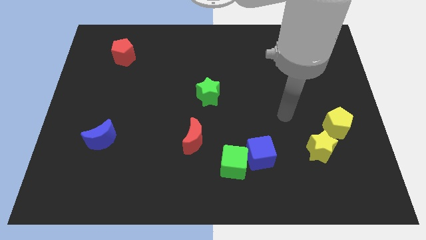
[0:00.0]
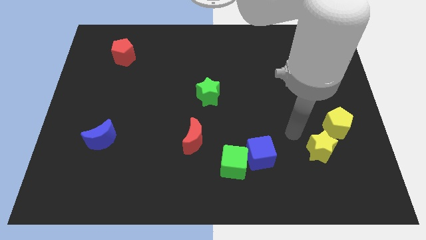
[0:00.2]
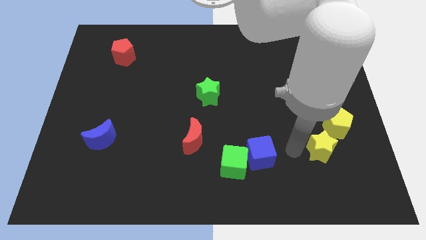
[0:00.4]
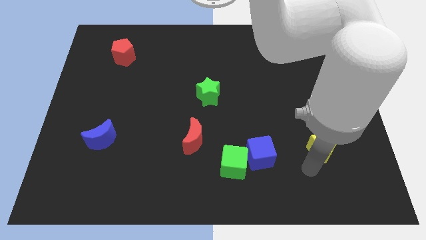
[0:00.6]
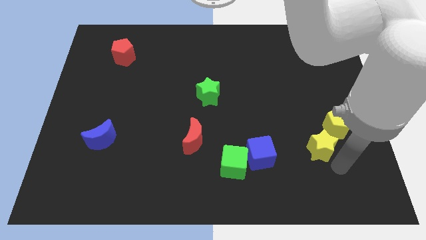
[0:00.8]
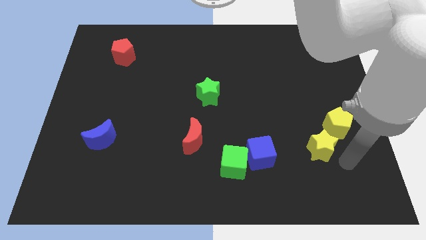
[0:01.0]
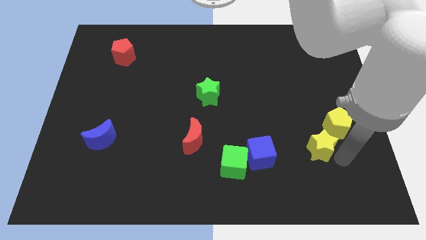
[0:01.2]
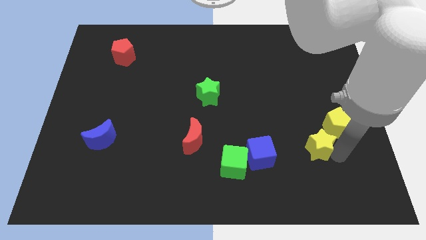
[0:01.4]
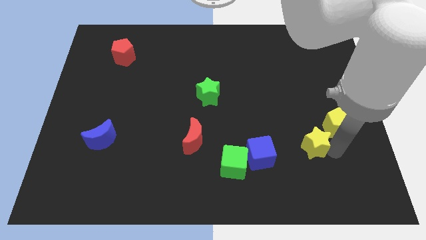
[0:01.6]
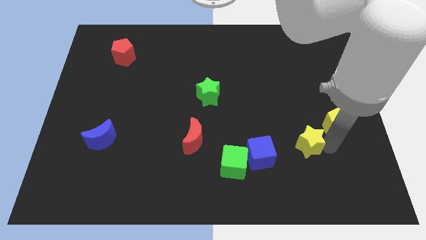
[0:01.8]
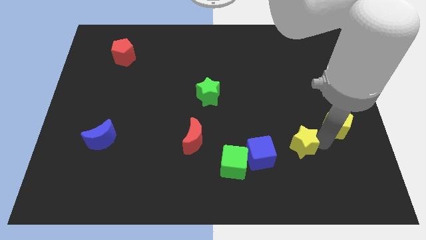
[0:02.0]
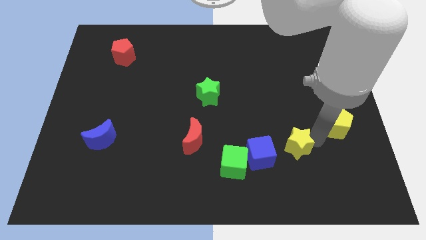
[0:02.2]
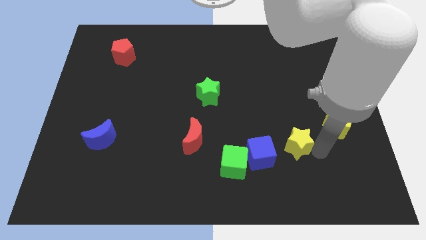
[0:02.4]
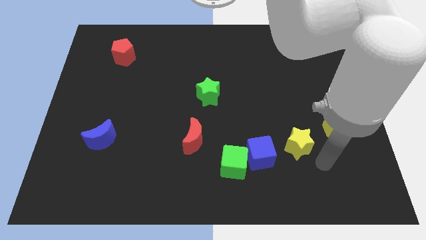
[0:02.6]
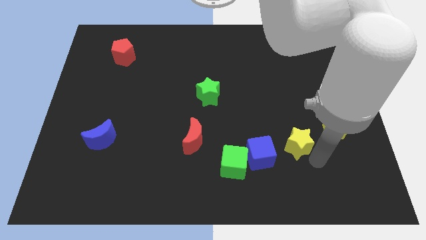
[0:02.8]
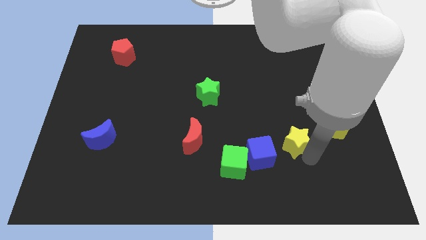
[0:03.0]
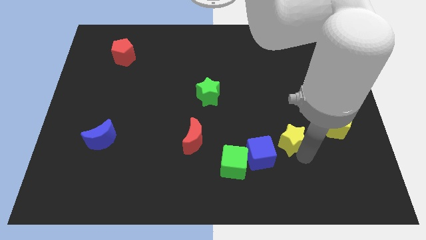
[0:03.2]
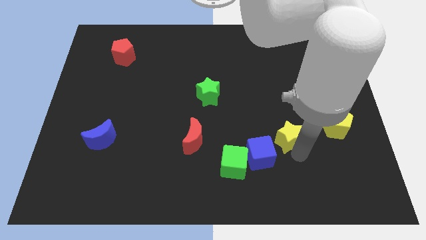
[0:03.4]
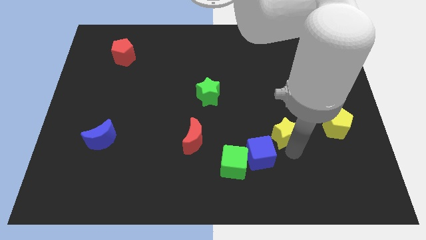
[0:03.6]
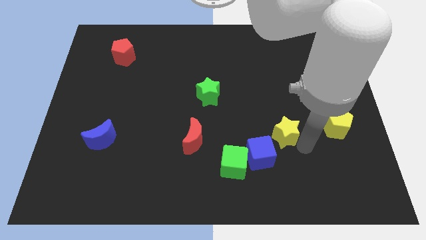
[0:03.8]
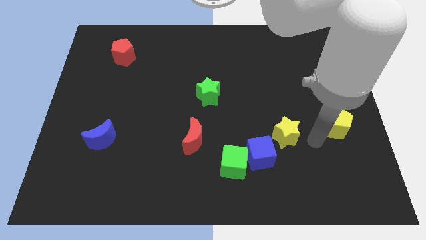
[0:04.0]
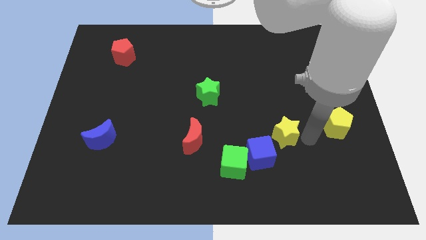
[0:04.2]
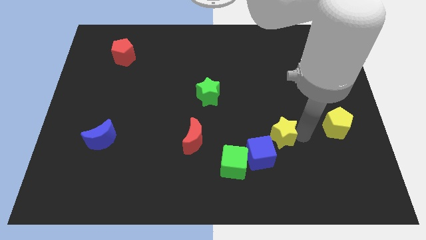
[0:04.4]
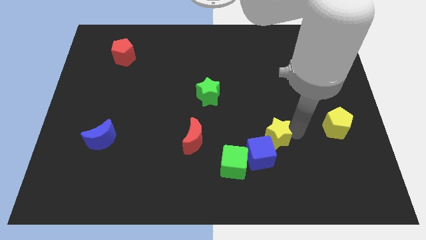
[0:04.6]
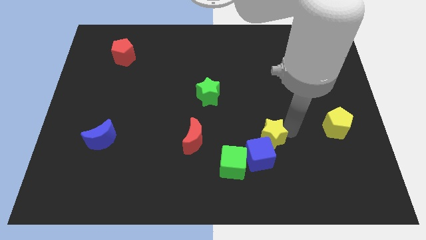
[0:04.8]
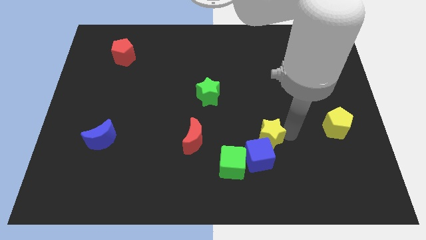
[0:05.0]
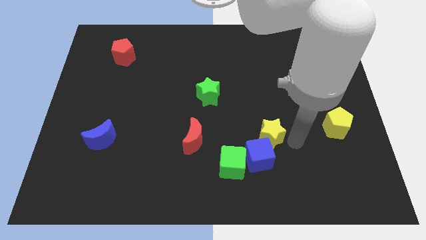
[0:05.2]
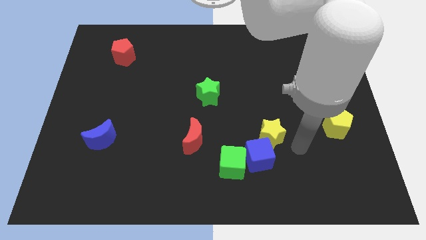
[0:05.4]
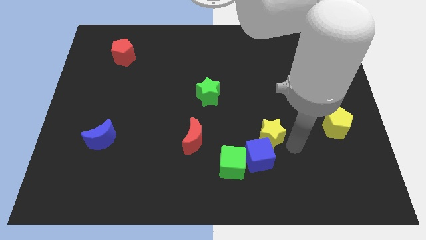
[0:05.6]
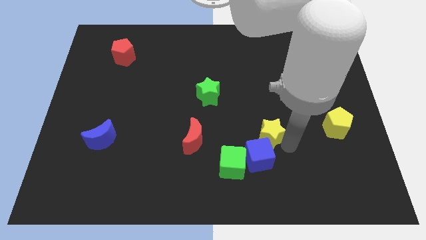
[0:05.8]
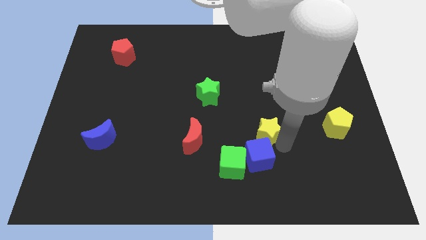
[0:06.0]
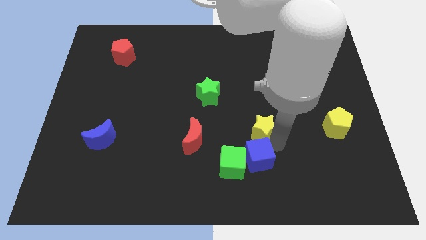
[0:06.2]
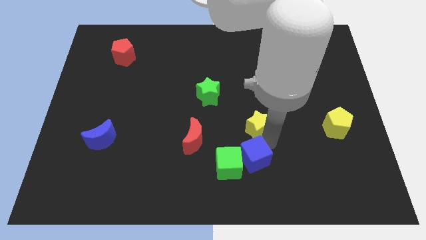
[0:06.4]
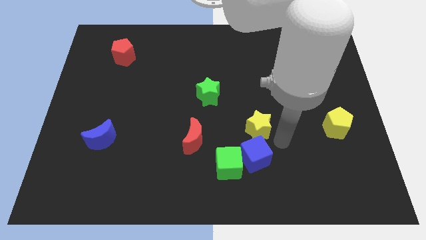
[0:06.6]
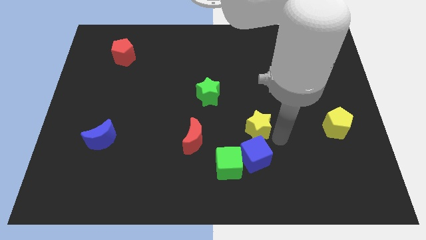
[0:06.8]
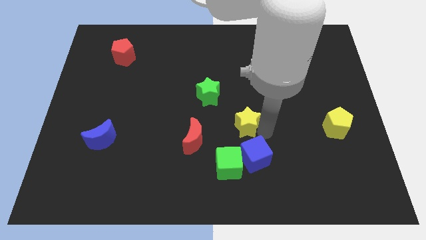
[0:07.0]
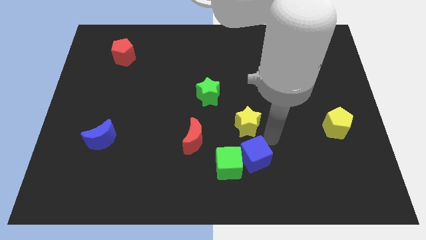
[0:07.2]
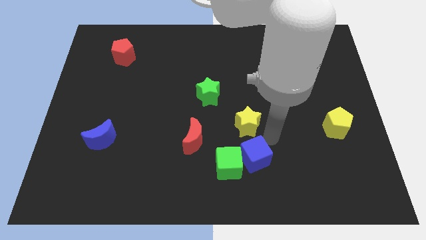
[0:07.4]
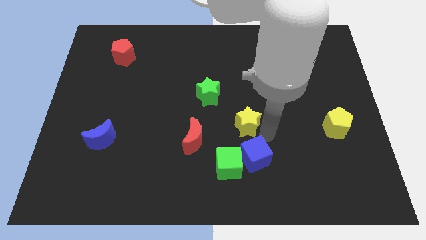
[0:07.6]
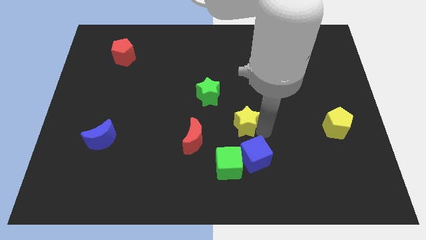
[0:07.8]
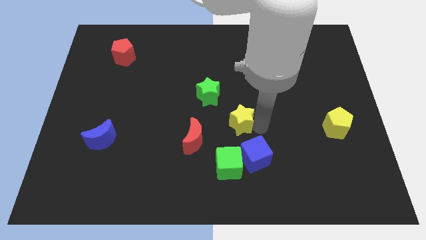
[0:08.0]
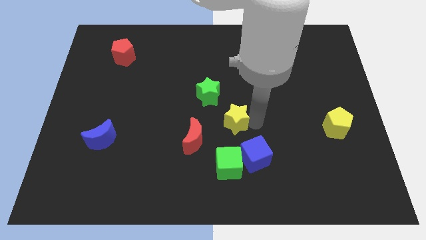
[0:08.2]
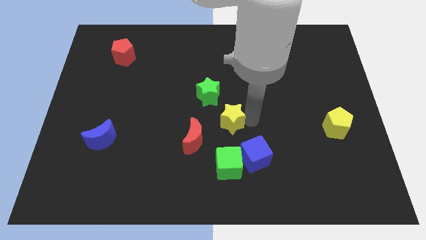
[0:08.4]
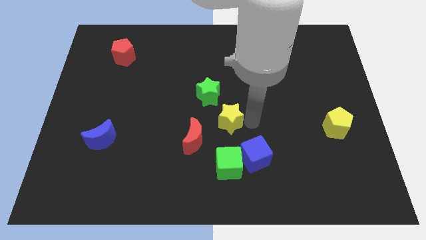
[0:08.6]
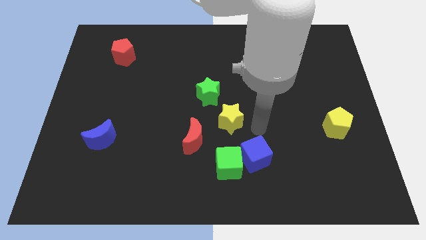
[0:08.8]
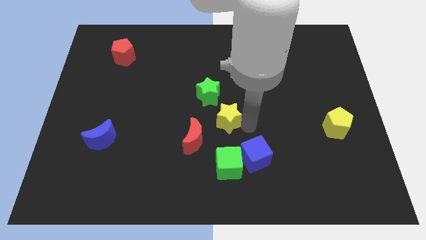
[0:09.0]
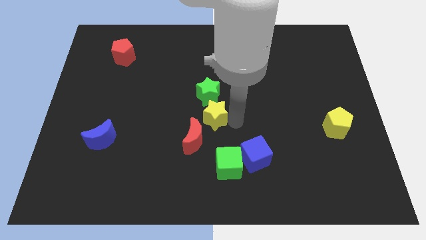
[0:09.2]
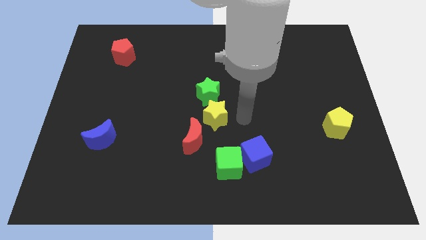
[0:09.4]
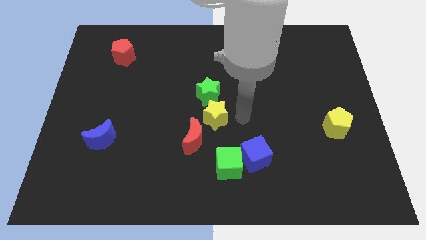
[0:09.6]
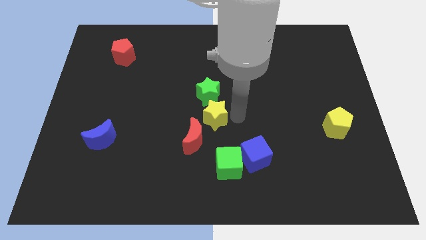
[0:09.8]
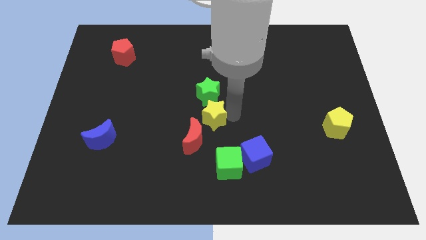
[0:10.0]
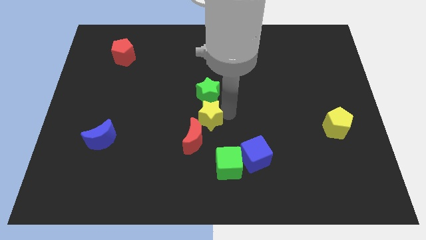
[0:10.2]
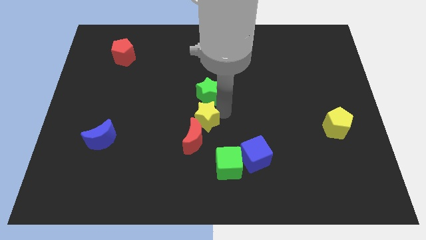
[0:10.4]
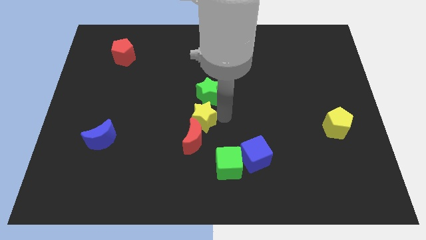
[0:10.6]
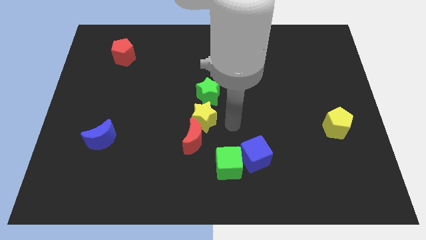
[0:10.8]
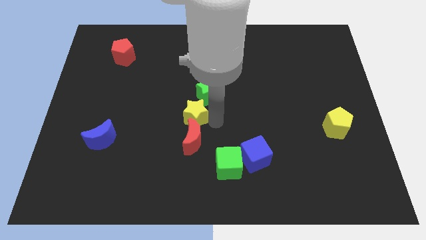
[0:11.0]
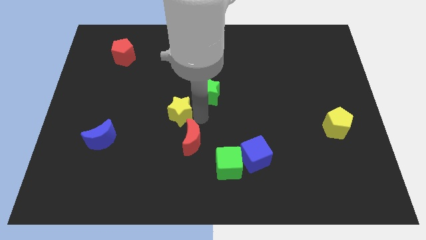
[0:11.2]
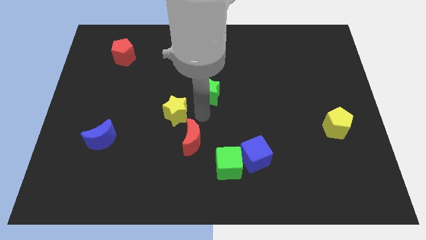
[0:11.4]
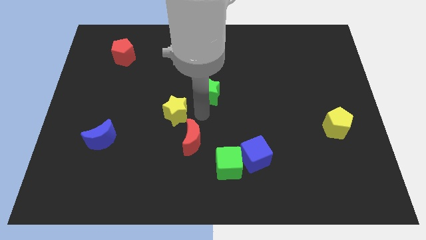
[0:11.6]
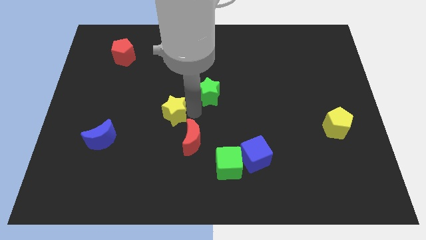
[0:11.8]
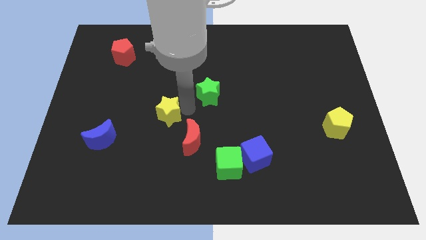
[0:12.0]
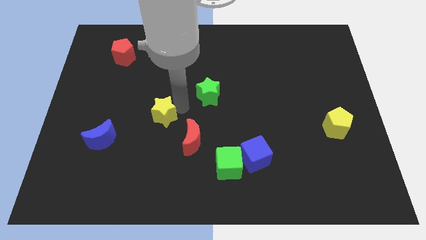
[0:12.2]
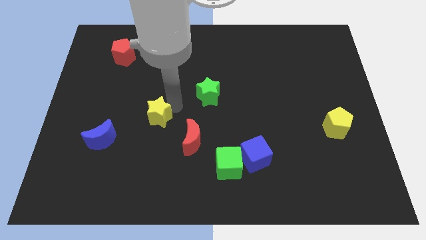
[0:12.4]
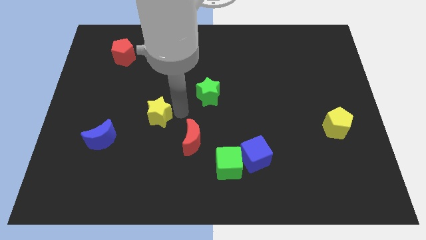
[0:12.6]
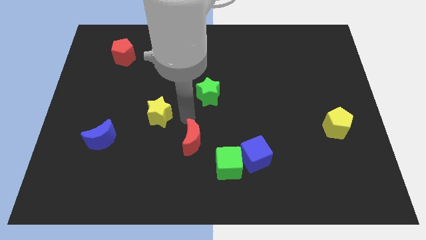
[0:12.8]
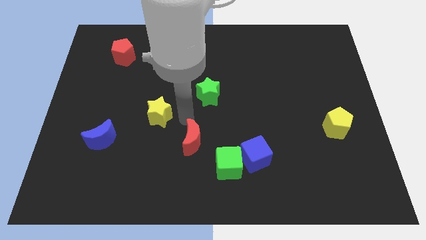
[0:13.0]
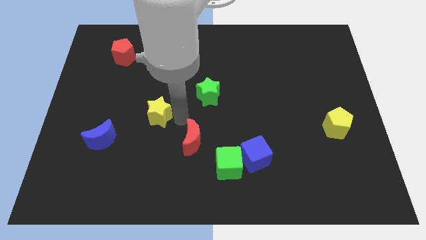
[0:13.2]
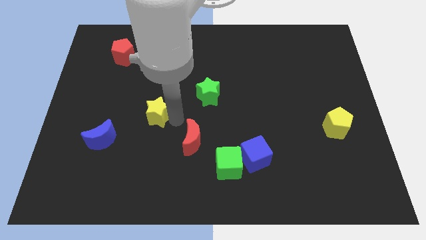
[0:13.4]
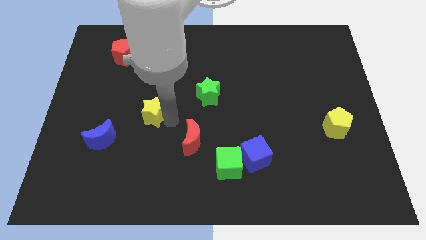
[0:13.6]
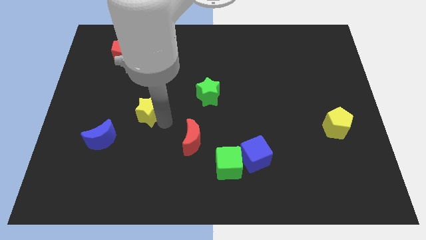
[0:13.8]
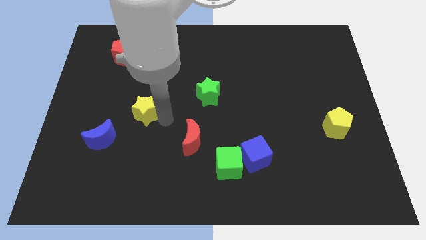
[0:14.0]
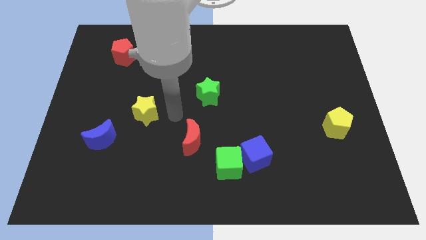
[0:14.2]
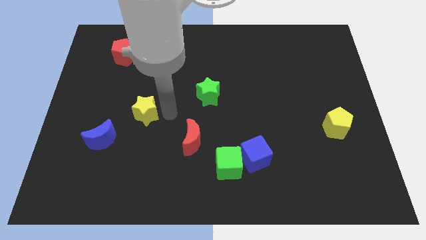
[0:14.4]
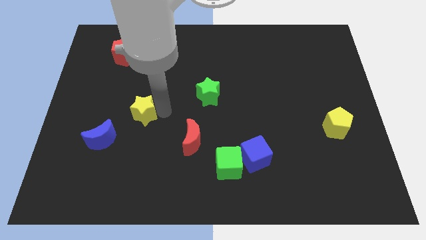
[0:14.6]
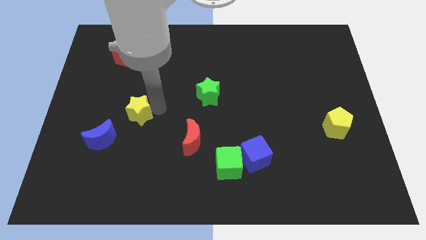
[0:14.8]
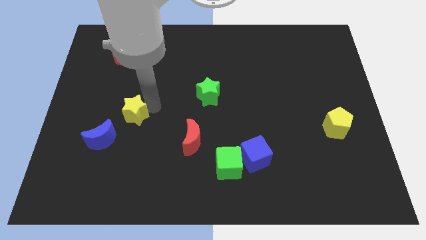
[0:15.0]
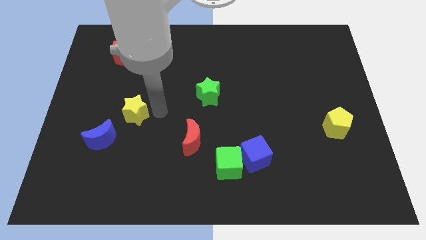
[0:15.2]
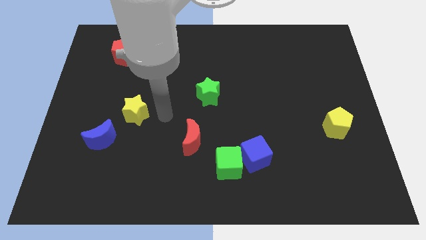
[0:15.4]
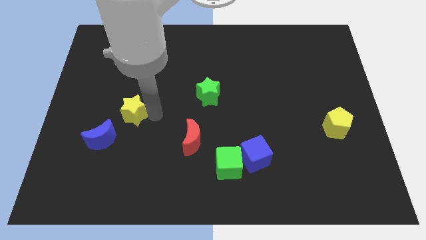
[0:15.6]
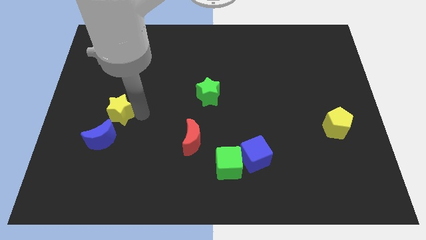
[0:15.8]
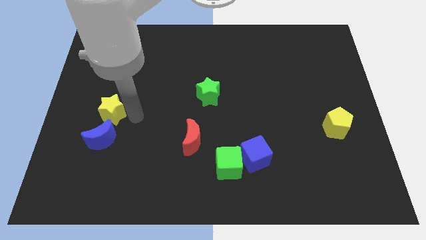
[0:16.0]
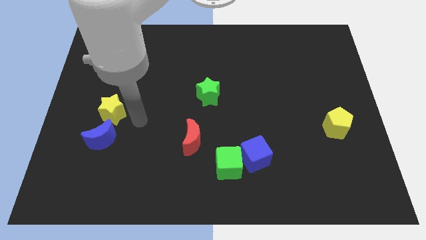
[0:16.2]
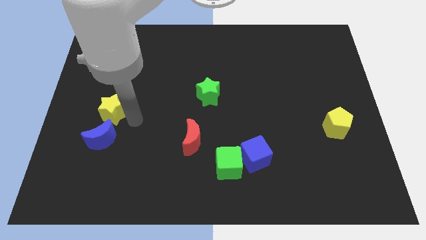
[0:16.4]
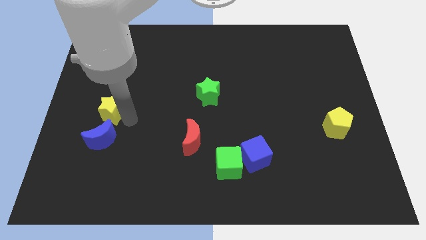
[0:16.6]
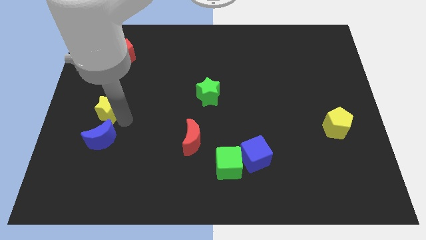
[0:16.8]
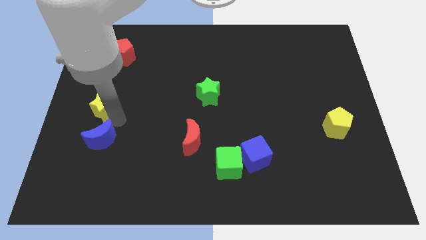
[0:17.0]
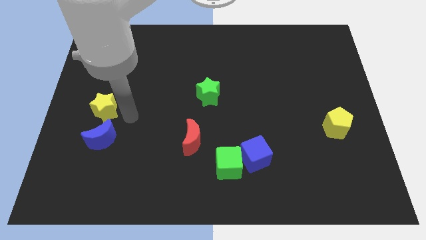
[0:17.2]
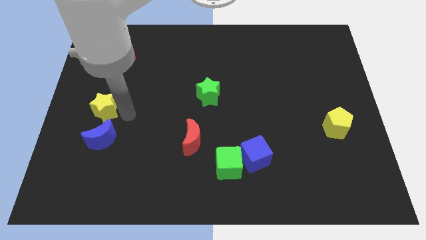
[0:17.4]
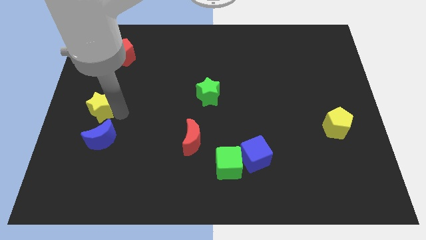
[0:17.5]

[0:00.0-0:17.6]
push the yellow star to the left side of the board
